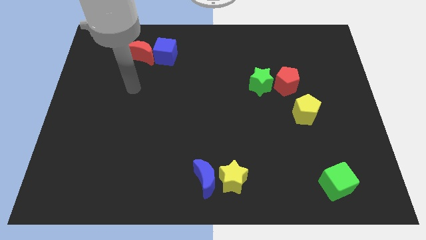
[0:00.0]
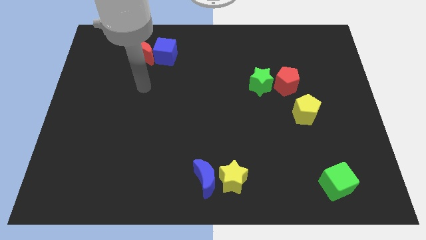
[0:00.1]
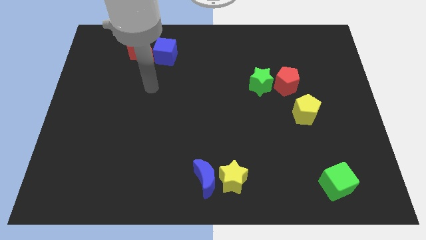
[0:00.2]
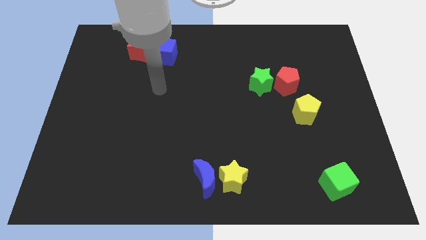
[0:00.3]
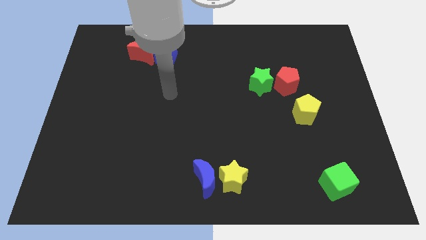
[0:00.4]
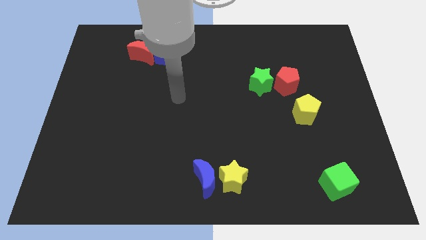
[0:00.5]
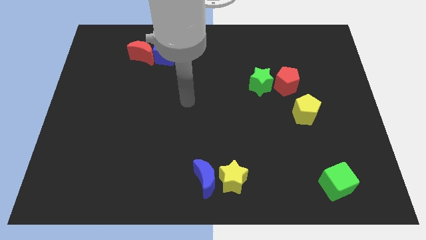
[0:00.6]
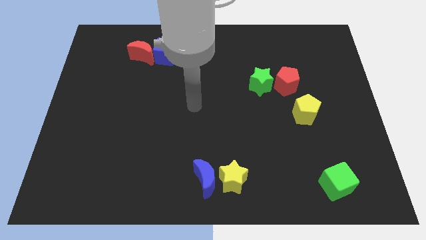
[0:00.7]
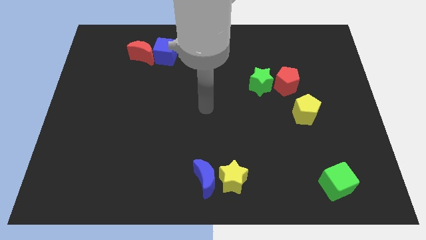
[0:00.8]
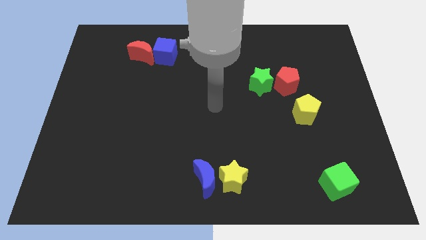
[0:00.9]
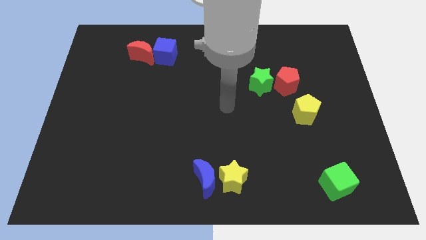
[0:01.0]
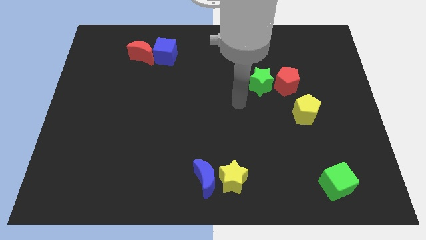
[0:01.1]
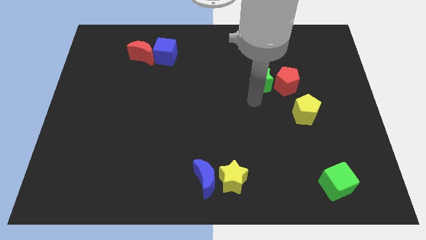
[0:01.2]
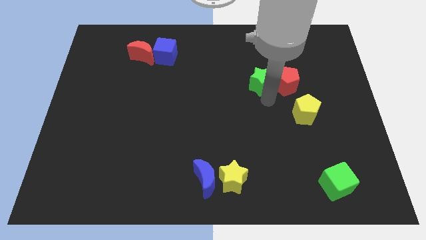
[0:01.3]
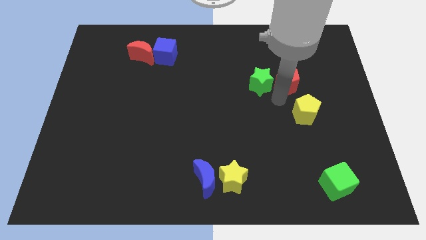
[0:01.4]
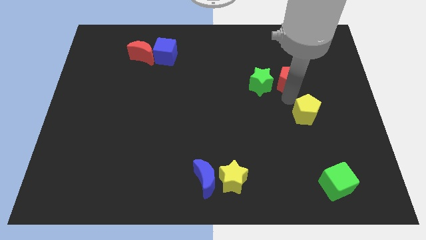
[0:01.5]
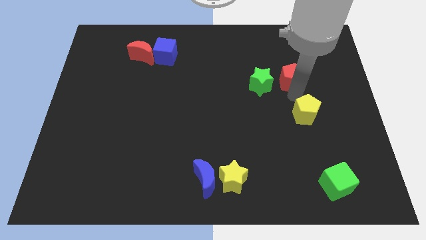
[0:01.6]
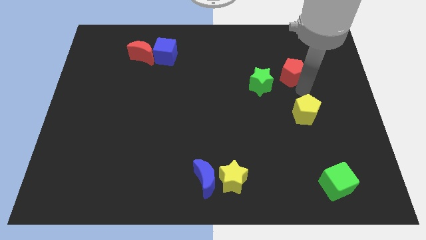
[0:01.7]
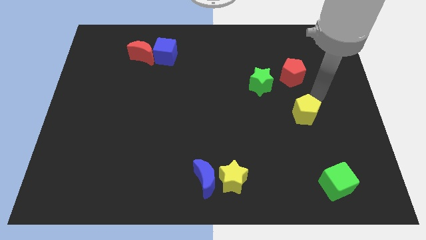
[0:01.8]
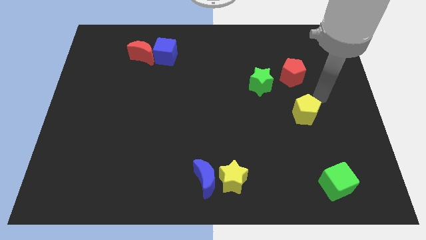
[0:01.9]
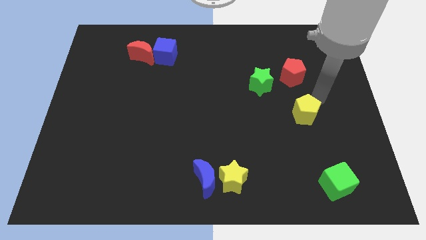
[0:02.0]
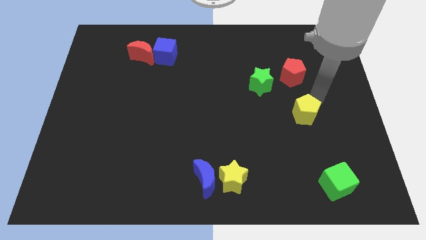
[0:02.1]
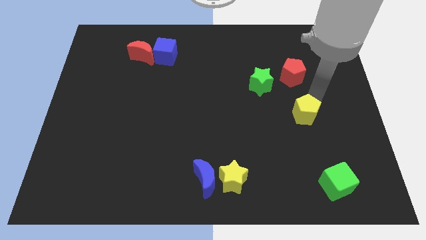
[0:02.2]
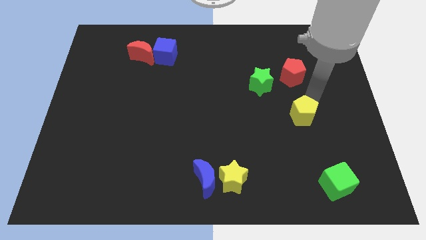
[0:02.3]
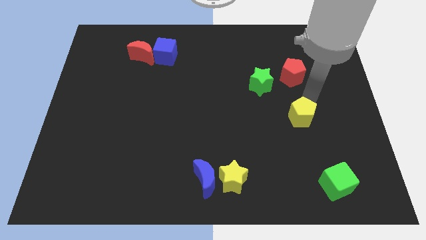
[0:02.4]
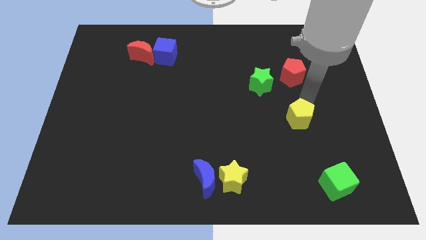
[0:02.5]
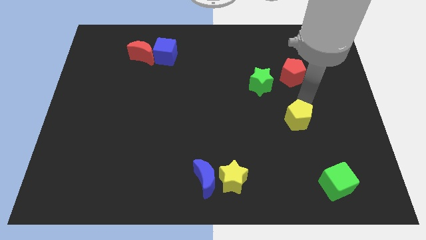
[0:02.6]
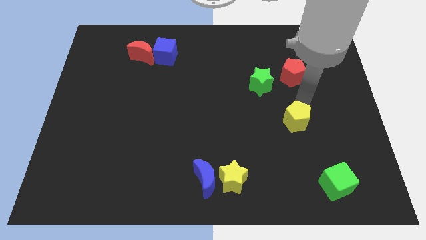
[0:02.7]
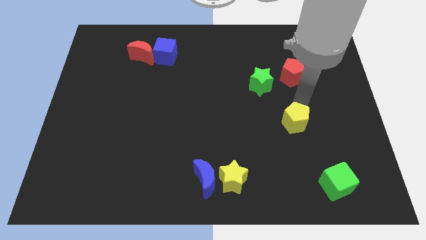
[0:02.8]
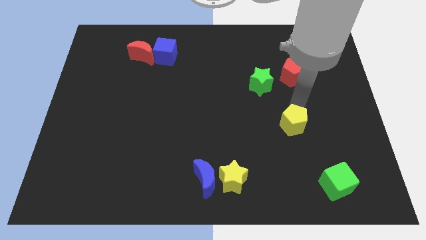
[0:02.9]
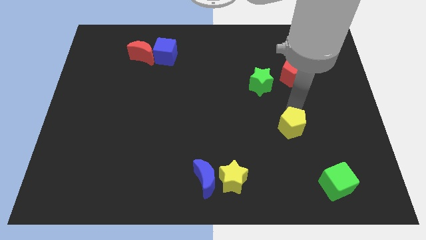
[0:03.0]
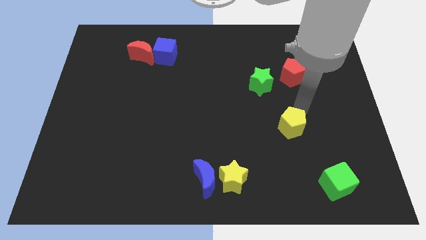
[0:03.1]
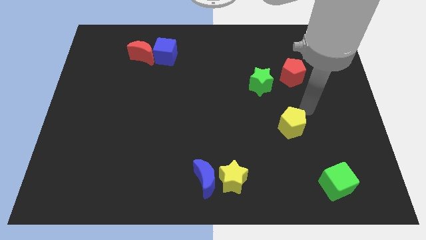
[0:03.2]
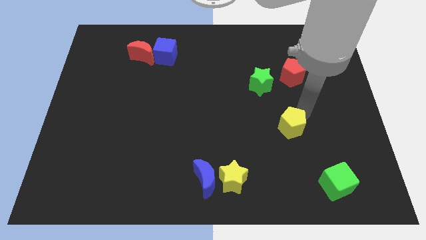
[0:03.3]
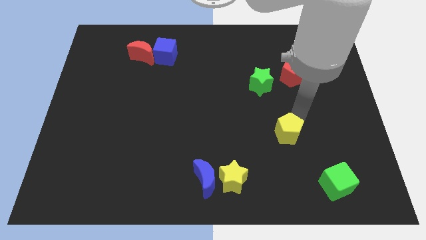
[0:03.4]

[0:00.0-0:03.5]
push the yellow pentagon downwards and left a little bit

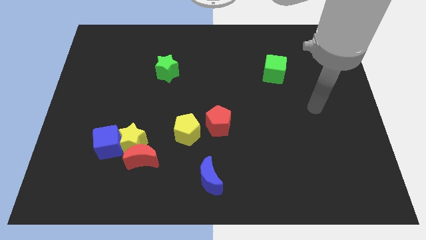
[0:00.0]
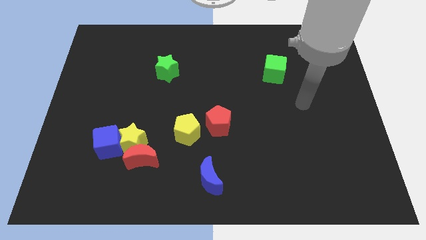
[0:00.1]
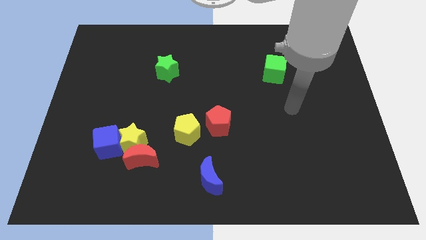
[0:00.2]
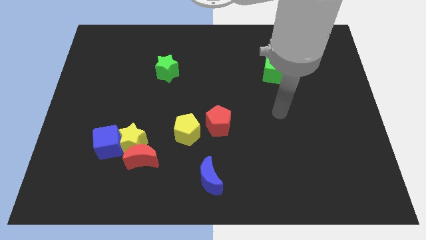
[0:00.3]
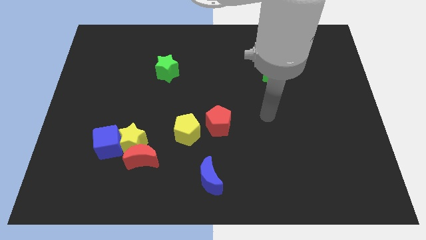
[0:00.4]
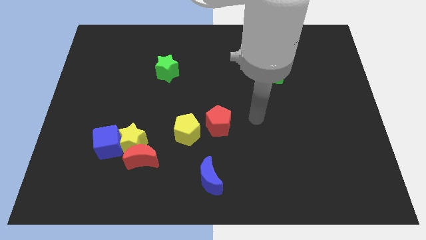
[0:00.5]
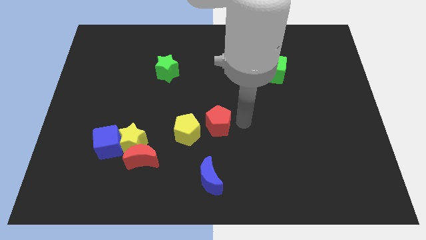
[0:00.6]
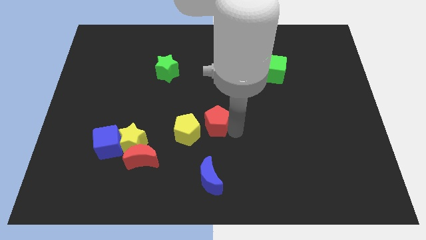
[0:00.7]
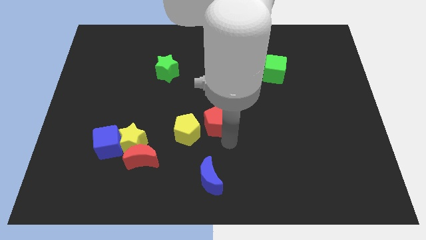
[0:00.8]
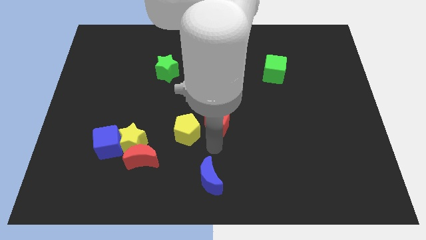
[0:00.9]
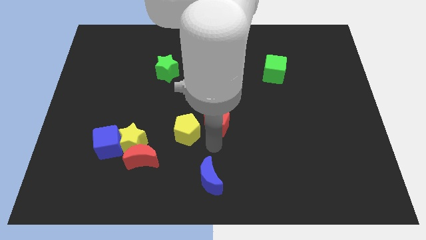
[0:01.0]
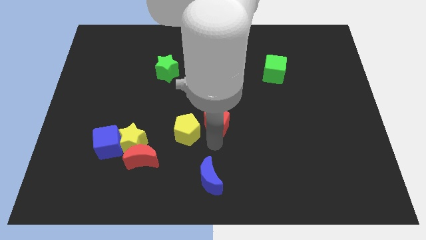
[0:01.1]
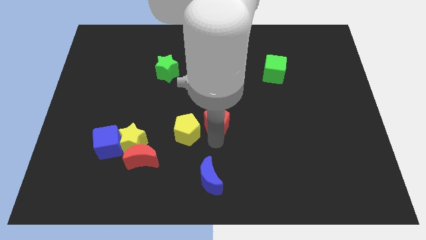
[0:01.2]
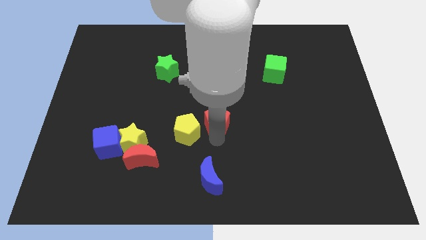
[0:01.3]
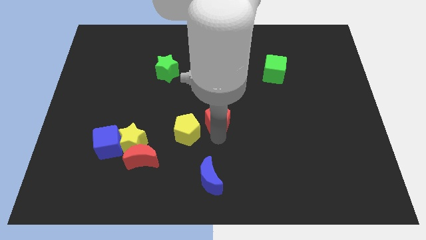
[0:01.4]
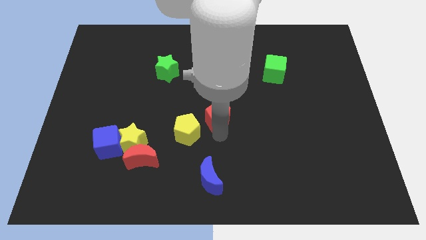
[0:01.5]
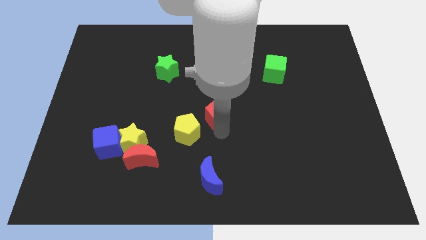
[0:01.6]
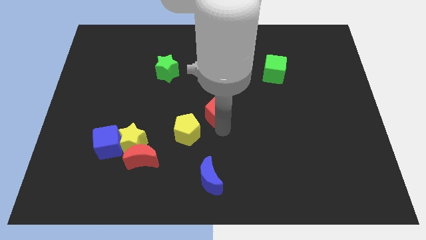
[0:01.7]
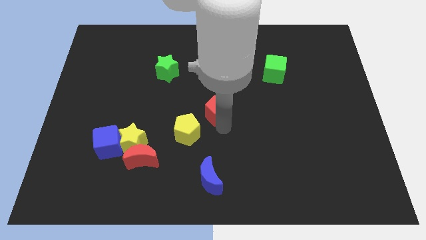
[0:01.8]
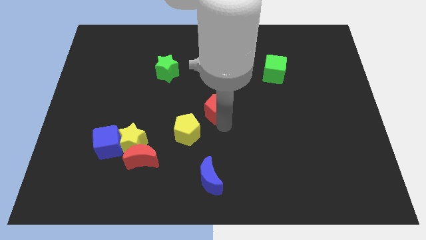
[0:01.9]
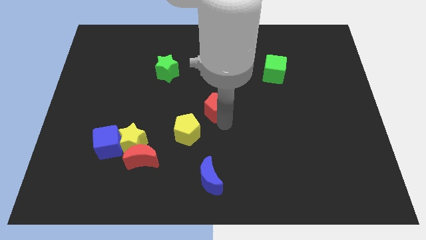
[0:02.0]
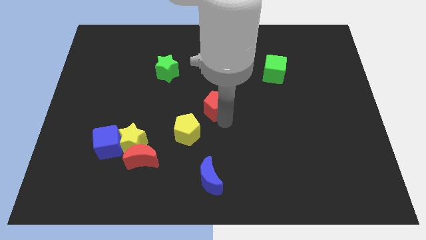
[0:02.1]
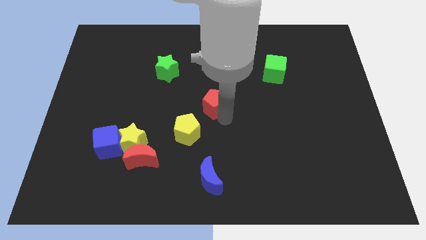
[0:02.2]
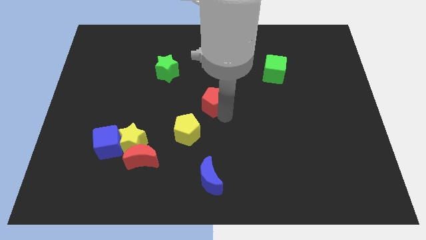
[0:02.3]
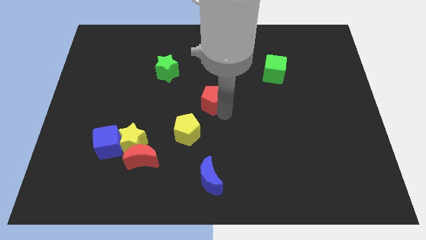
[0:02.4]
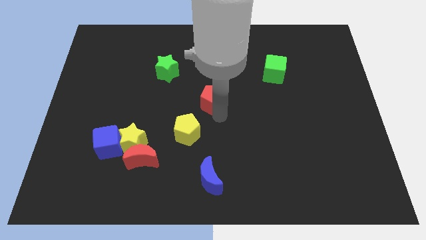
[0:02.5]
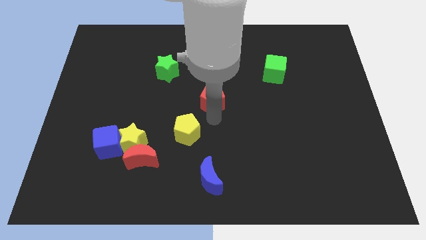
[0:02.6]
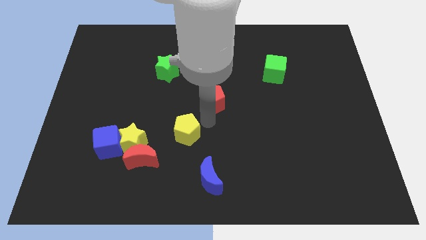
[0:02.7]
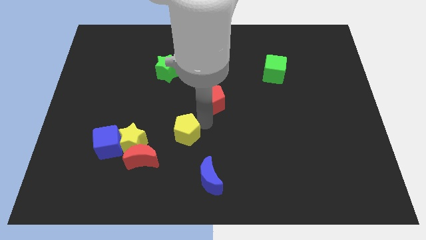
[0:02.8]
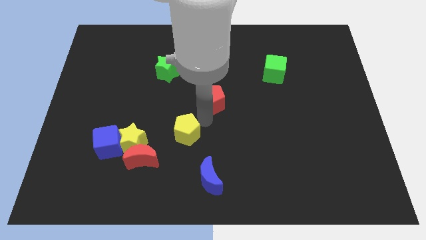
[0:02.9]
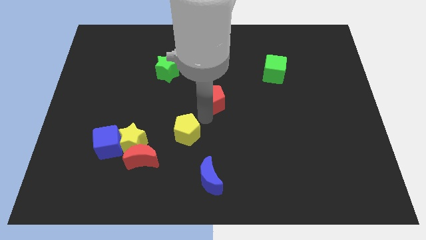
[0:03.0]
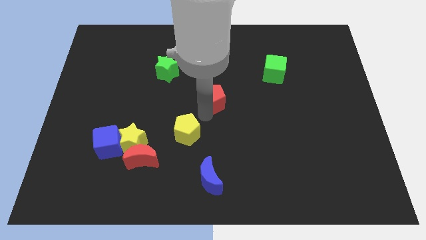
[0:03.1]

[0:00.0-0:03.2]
slightly move the red pentagon upwards

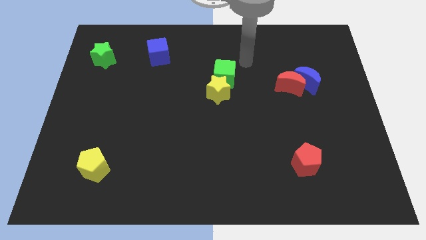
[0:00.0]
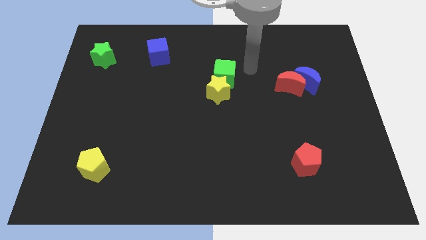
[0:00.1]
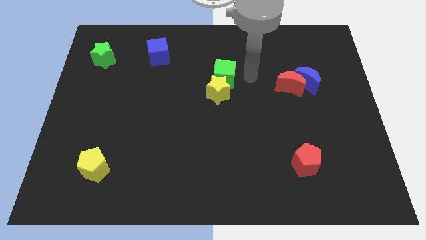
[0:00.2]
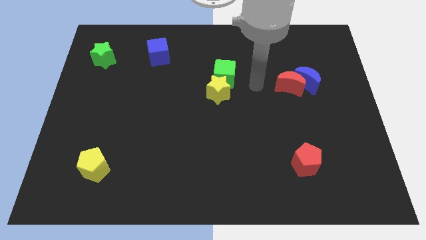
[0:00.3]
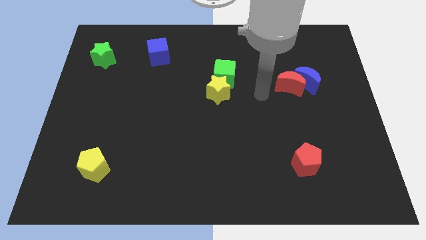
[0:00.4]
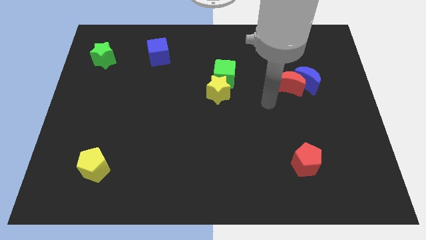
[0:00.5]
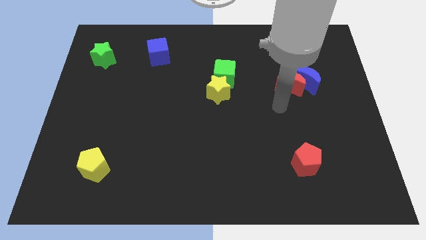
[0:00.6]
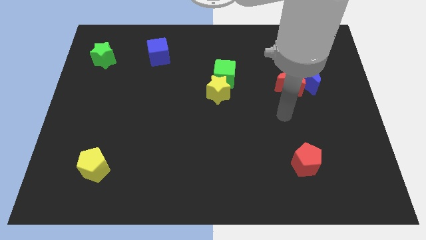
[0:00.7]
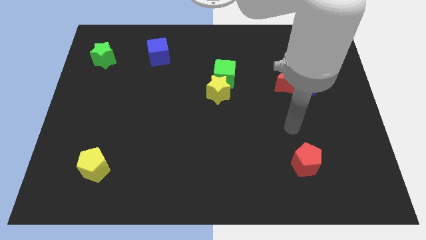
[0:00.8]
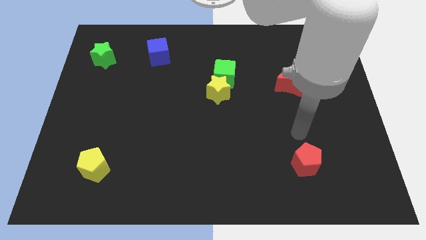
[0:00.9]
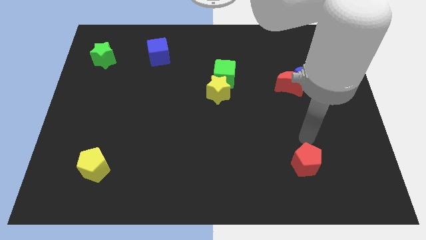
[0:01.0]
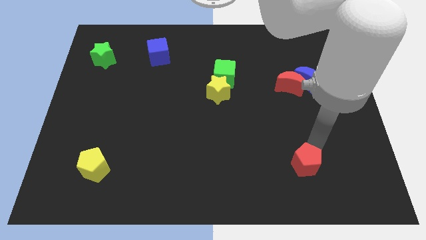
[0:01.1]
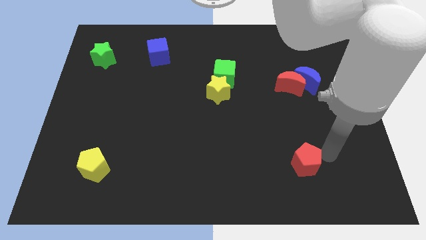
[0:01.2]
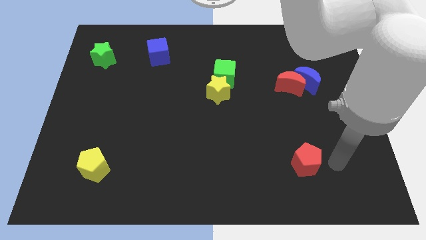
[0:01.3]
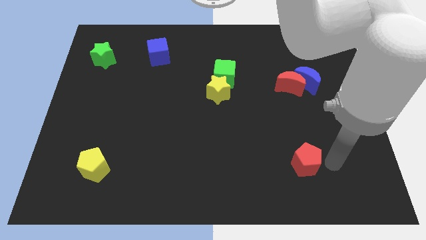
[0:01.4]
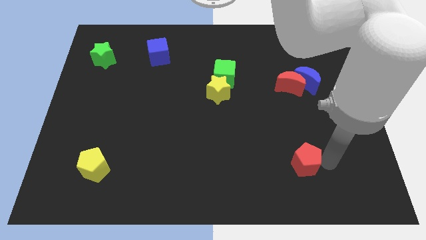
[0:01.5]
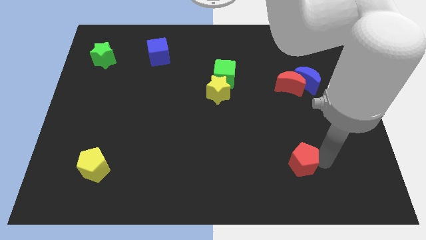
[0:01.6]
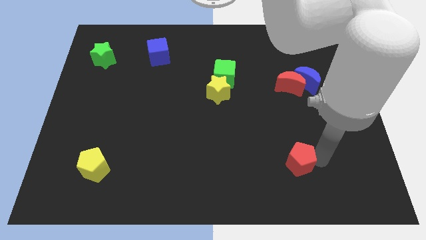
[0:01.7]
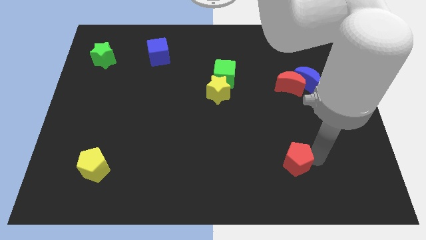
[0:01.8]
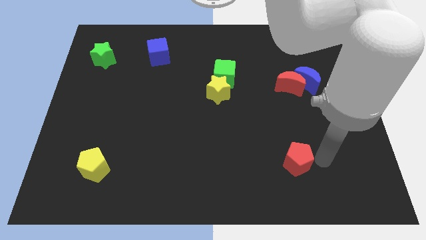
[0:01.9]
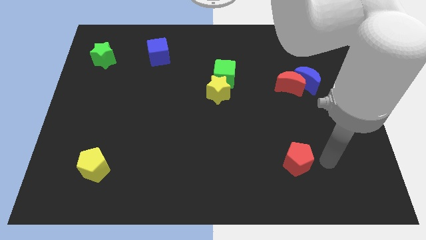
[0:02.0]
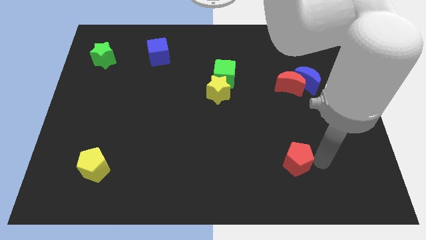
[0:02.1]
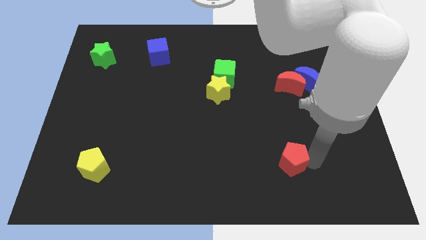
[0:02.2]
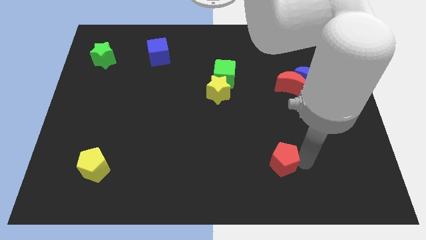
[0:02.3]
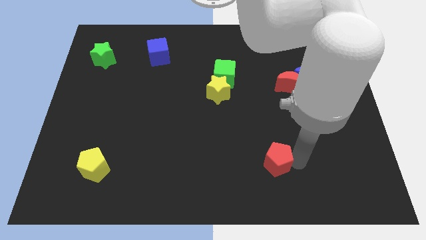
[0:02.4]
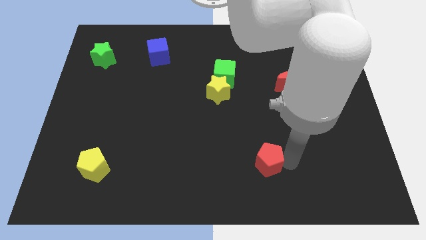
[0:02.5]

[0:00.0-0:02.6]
slightly push the red pentagon to the left
